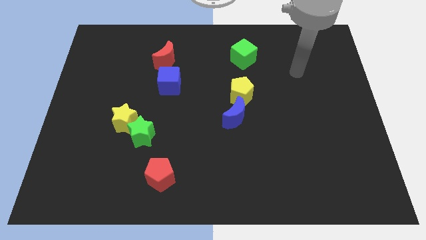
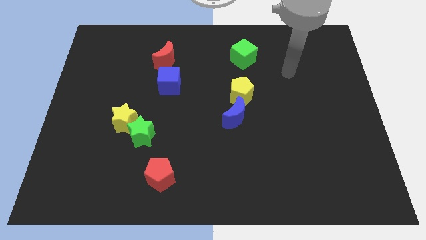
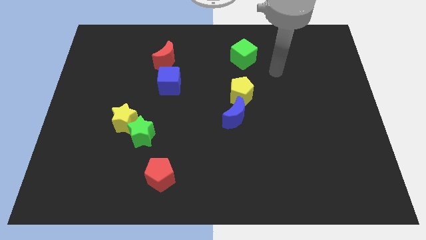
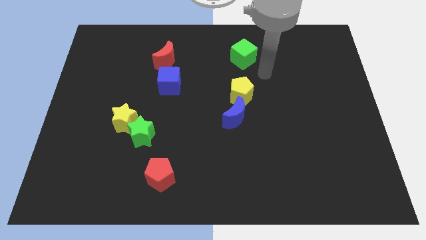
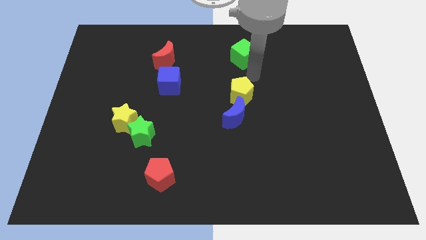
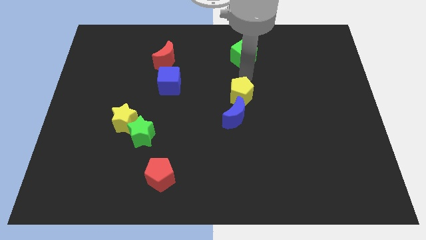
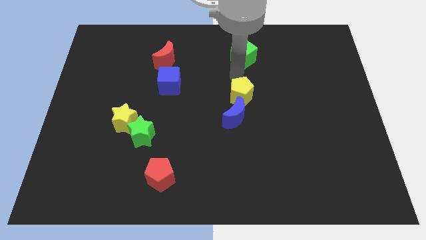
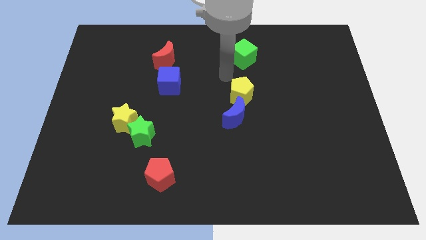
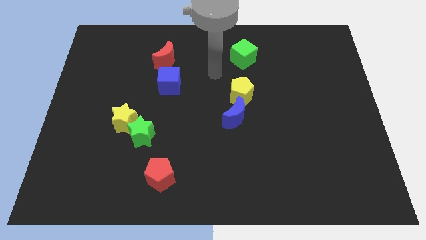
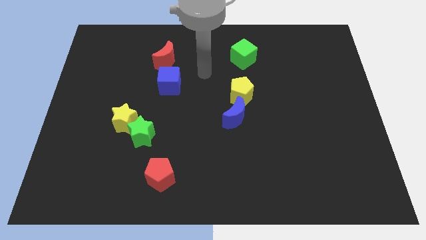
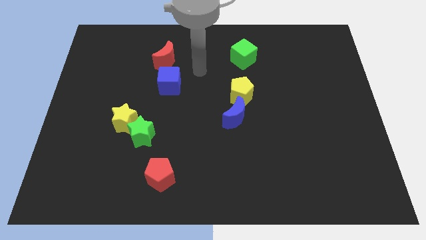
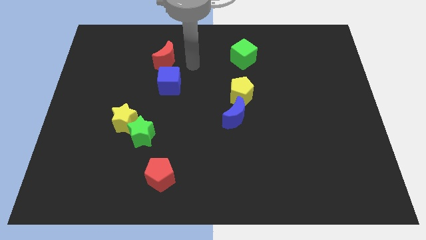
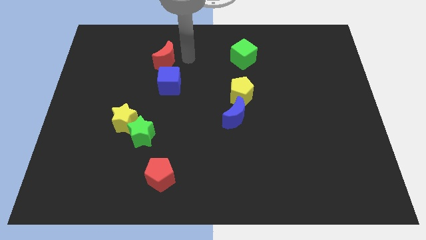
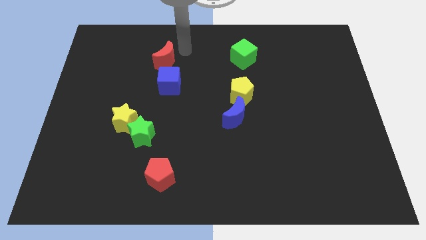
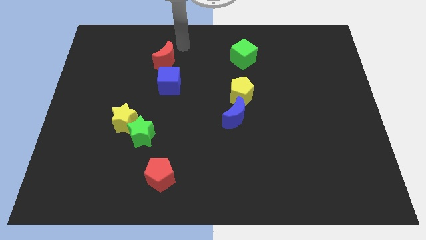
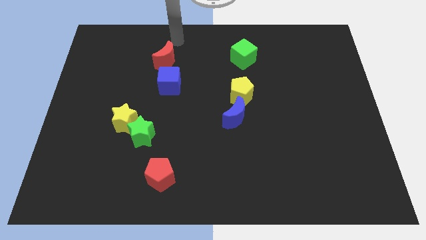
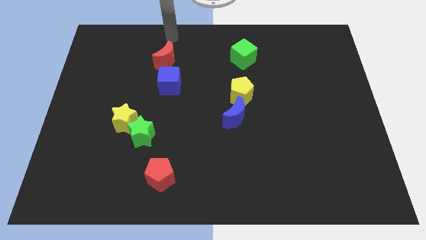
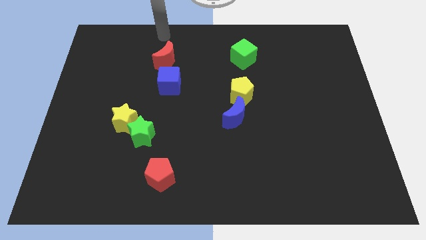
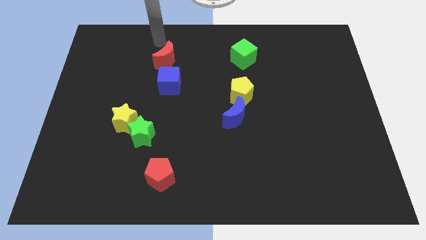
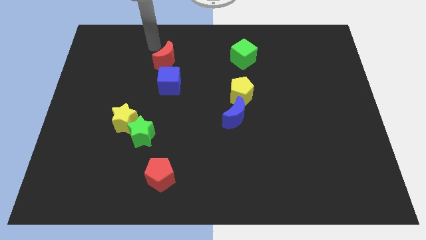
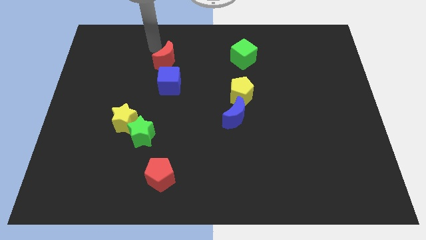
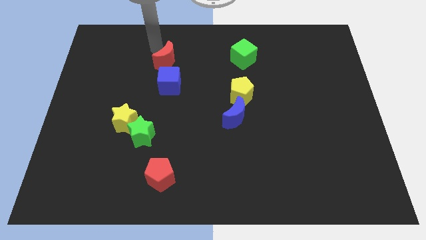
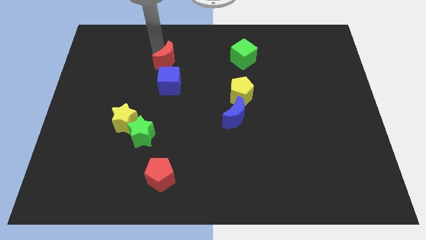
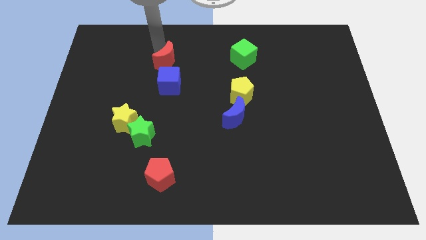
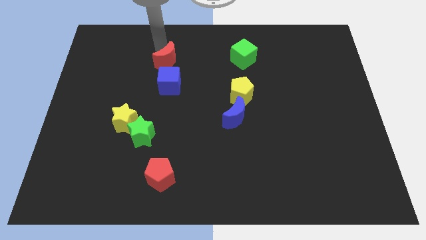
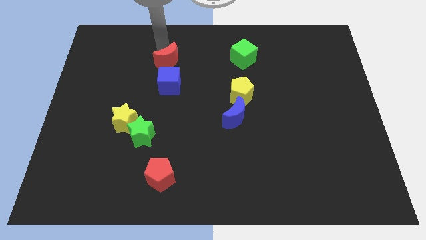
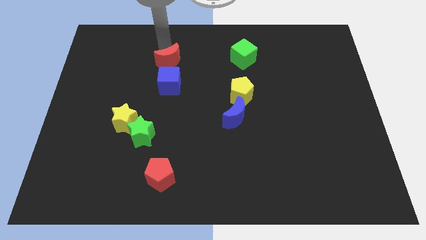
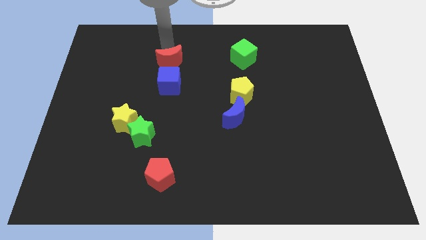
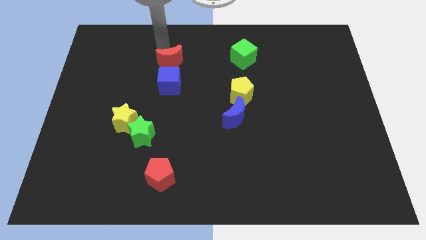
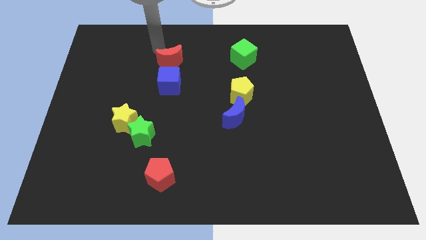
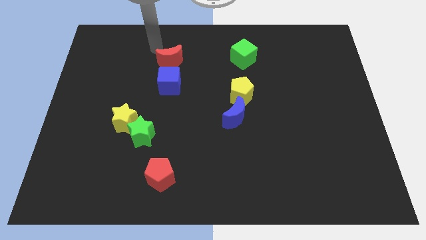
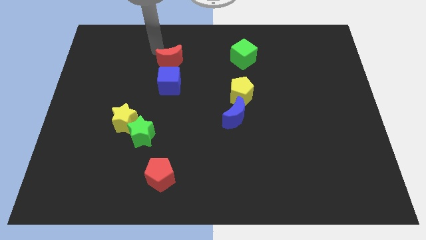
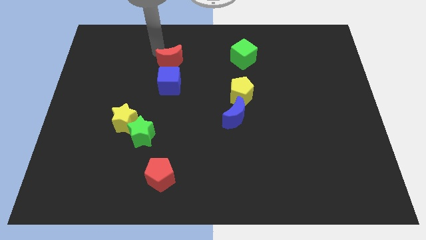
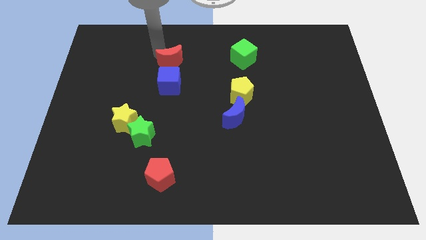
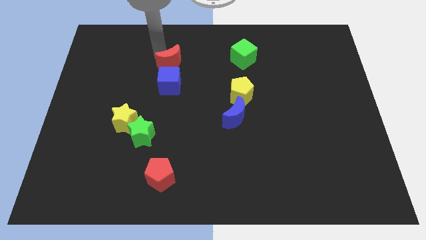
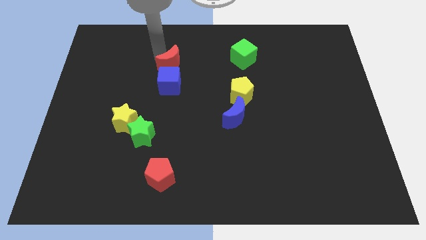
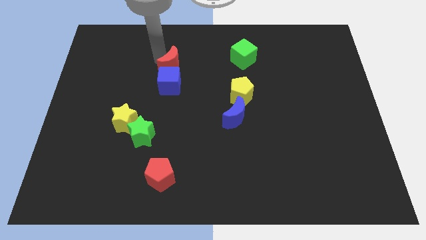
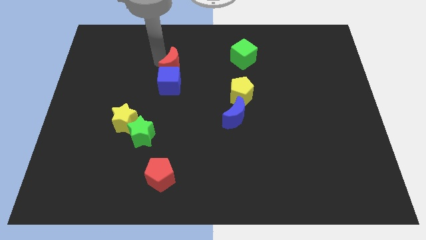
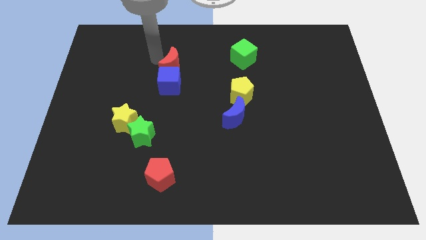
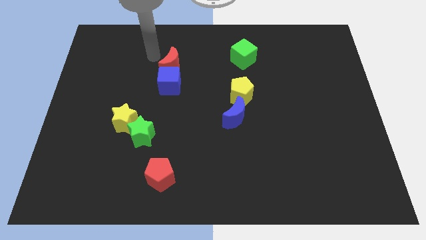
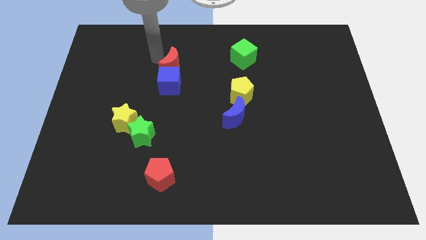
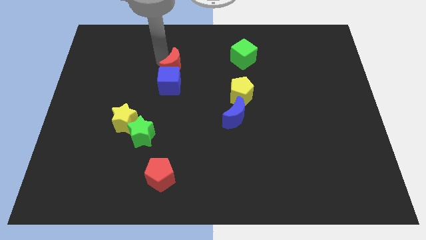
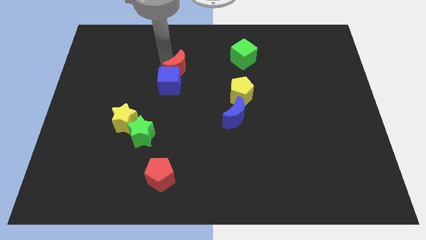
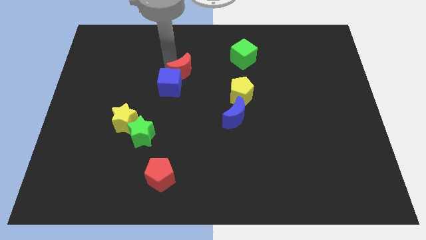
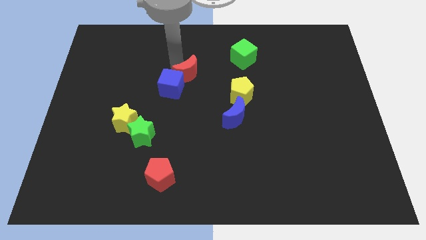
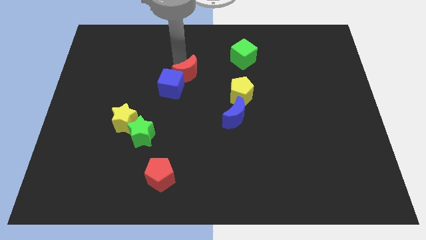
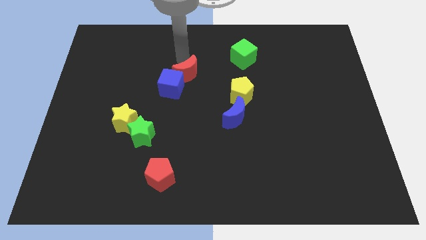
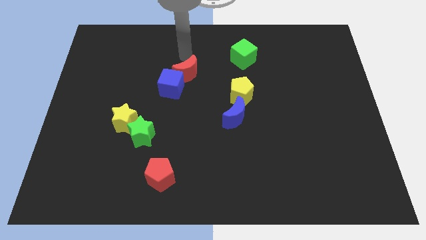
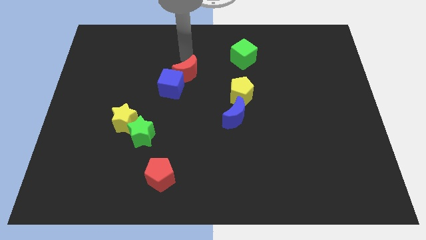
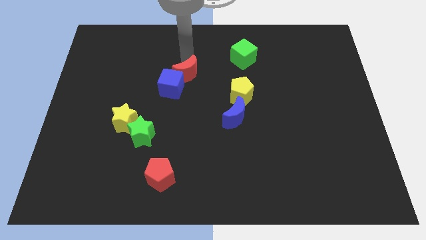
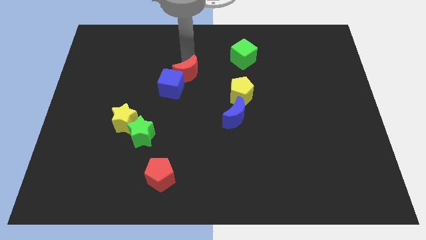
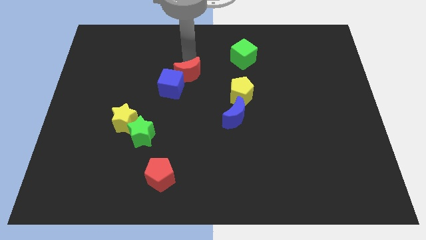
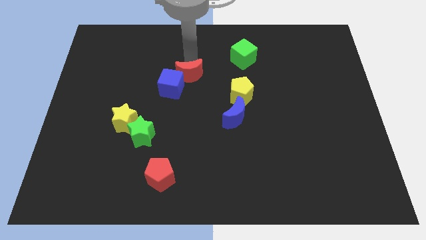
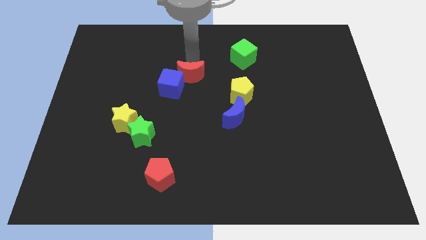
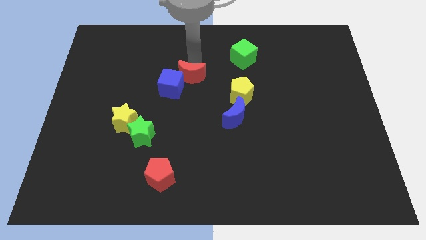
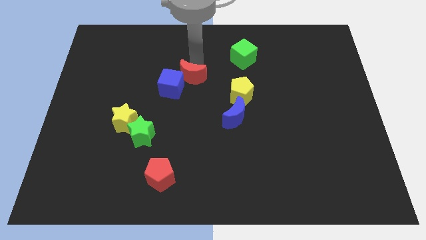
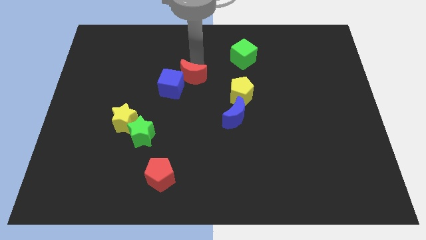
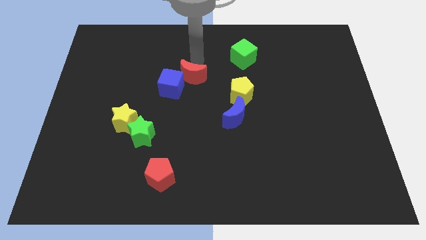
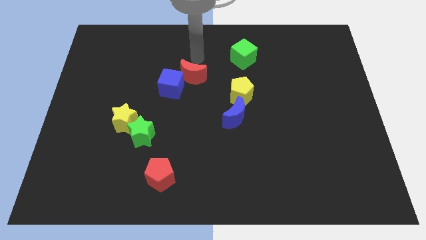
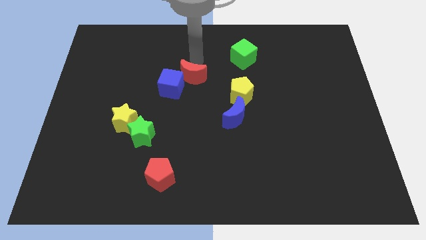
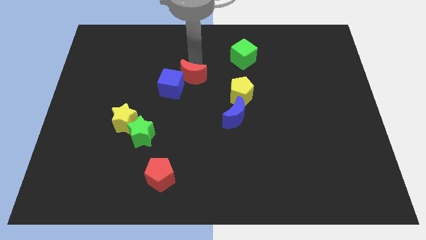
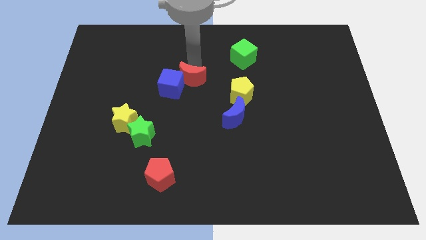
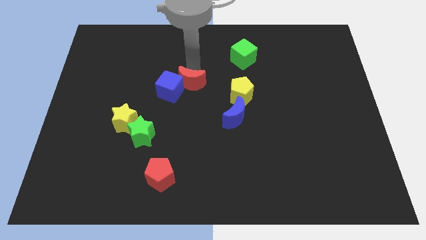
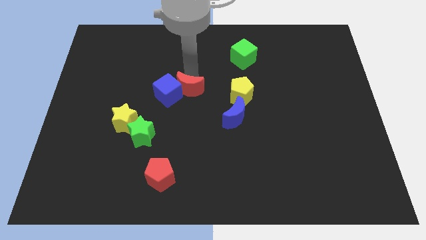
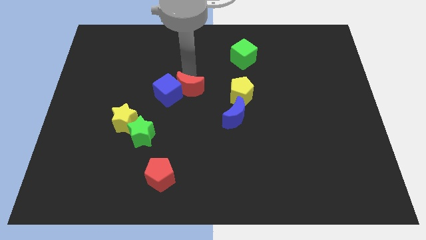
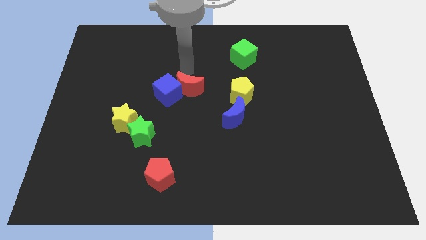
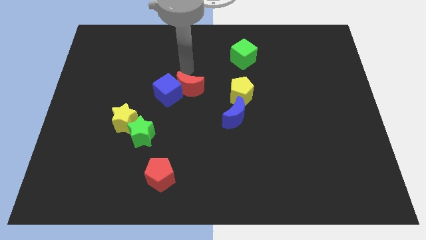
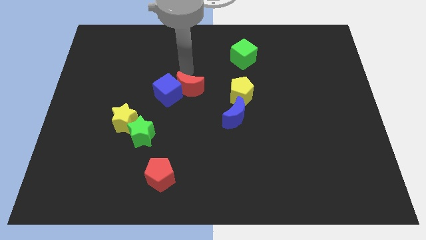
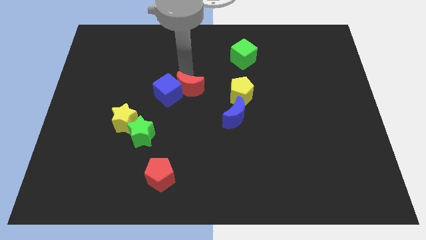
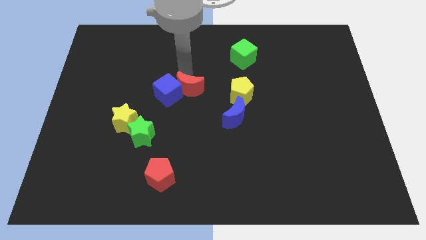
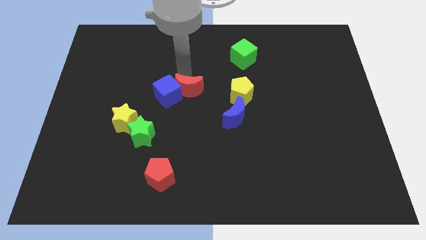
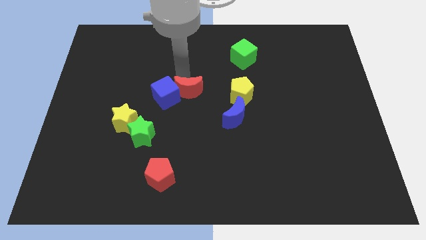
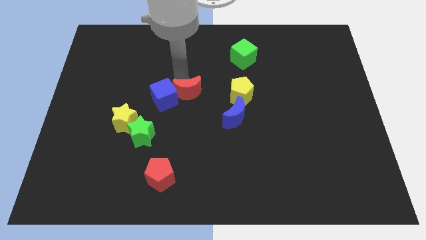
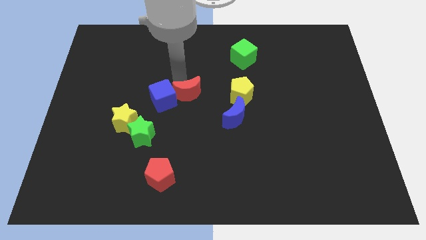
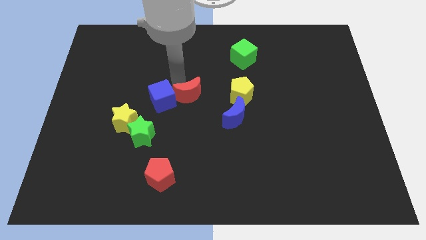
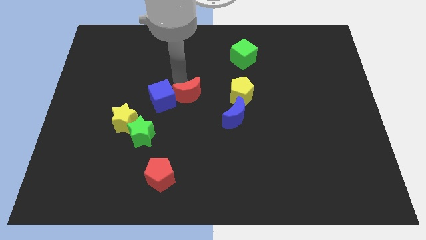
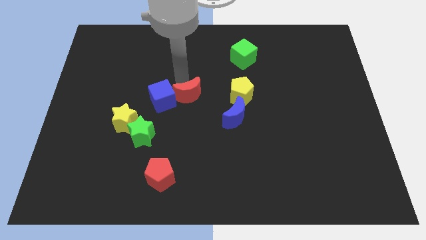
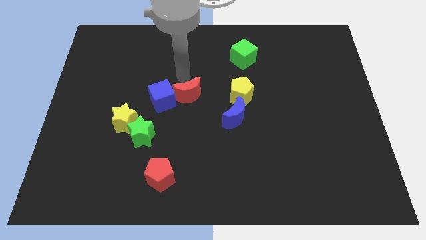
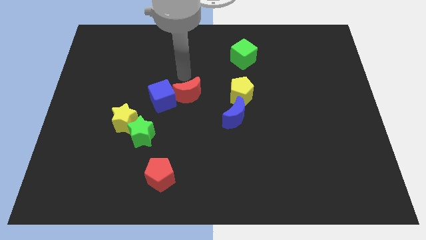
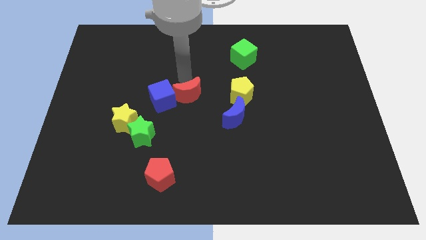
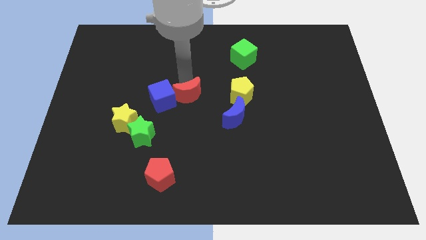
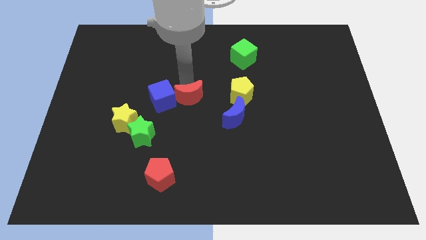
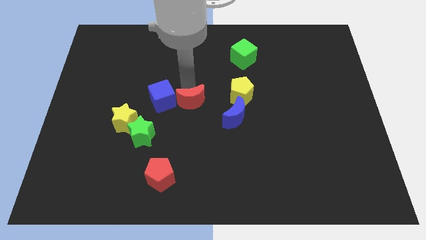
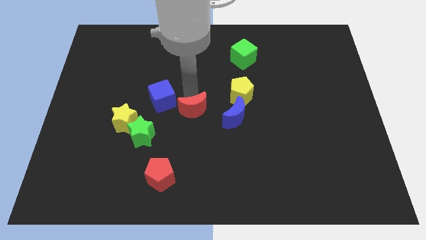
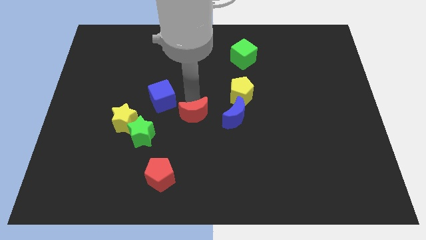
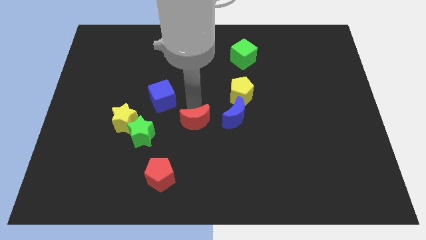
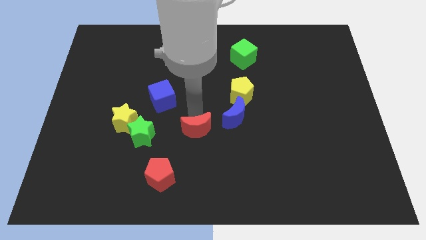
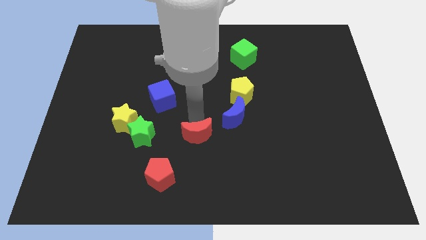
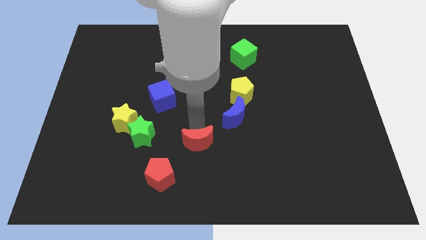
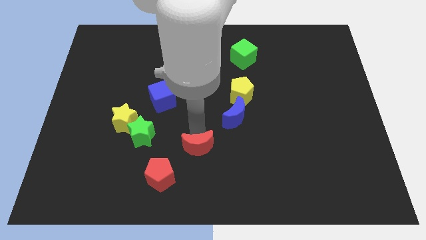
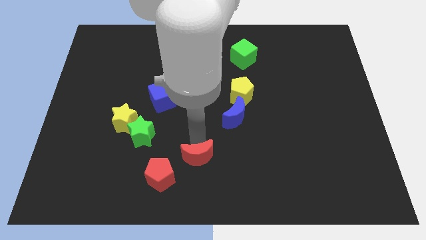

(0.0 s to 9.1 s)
put the red moon to the bottom
